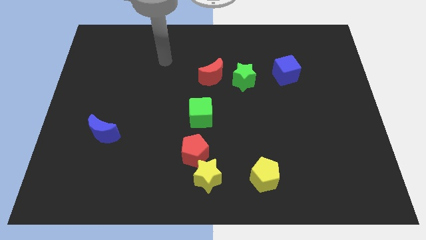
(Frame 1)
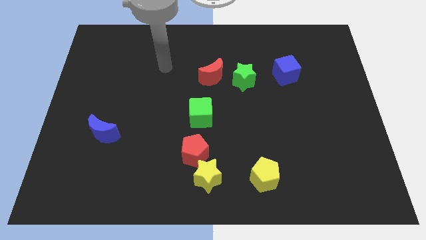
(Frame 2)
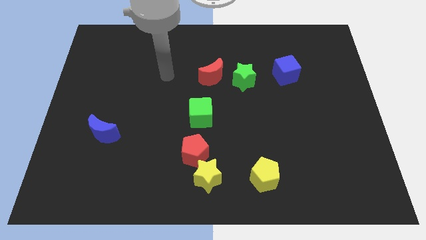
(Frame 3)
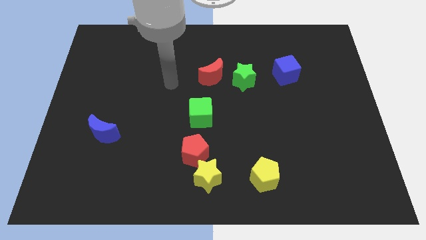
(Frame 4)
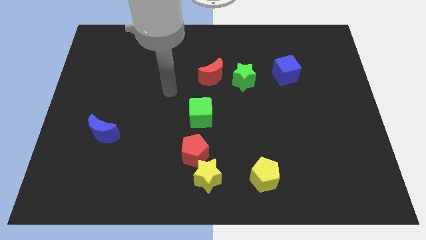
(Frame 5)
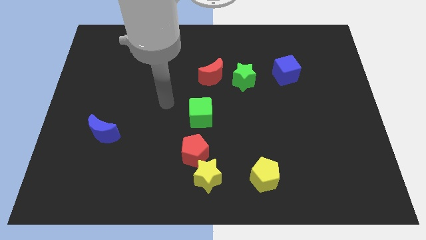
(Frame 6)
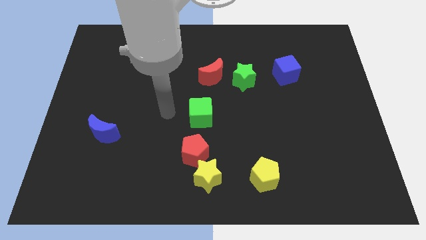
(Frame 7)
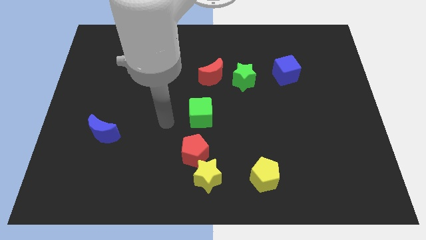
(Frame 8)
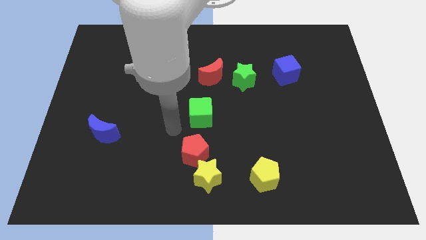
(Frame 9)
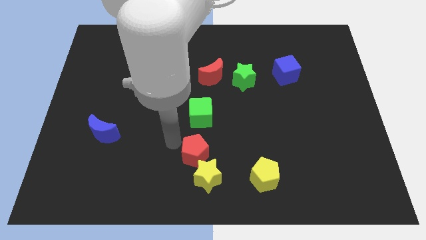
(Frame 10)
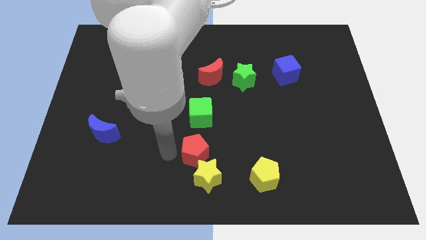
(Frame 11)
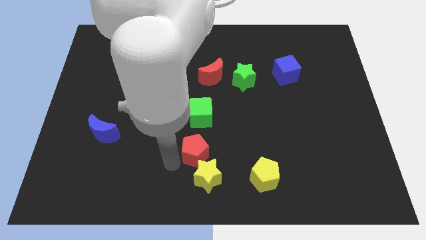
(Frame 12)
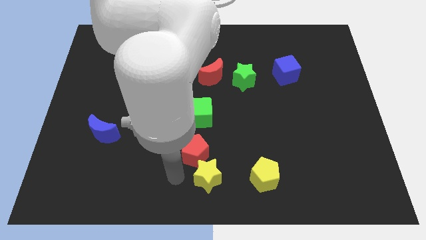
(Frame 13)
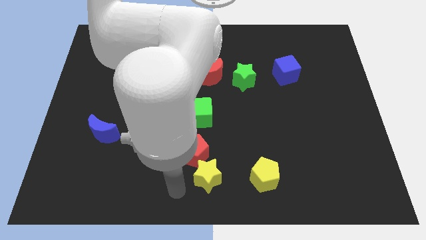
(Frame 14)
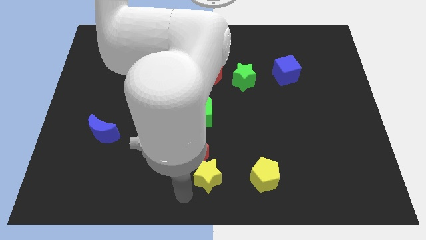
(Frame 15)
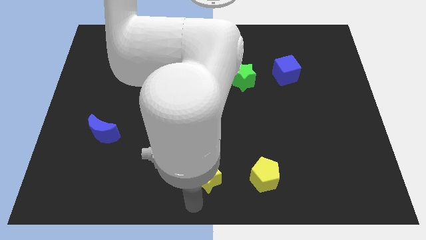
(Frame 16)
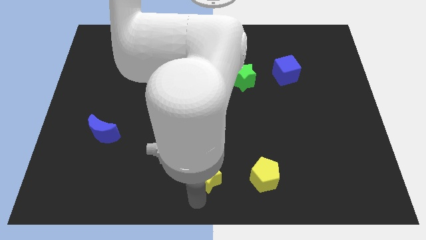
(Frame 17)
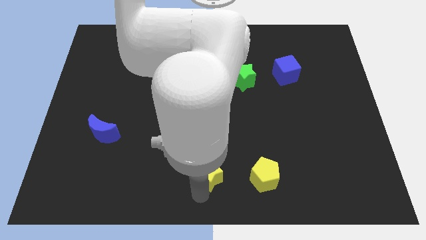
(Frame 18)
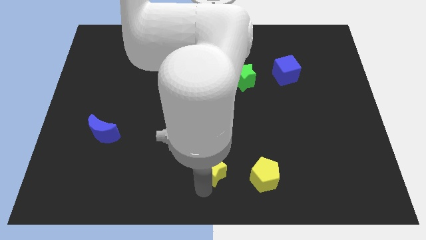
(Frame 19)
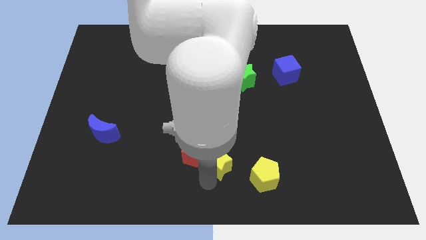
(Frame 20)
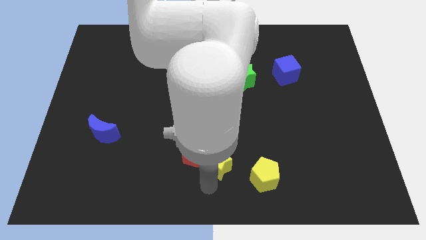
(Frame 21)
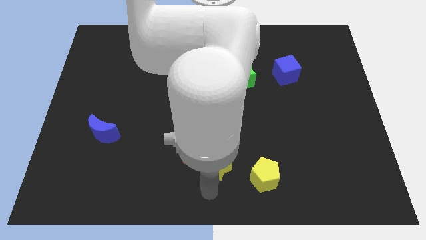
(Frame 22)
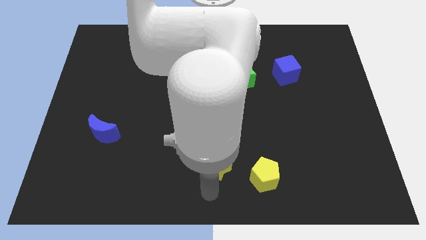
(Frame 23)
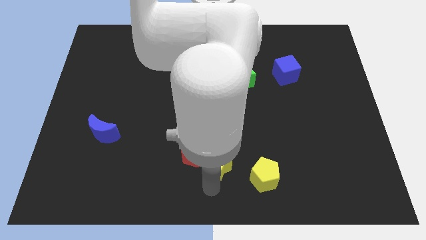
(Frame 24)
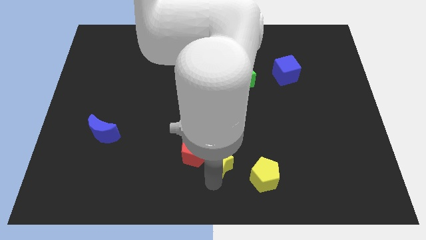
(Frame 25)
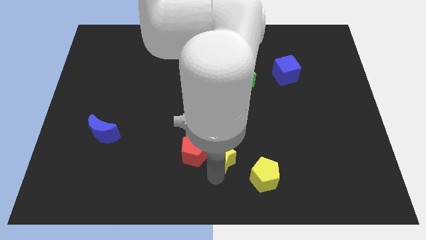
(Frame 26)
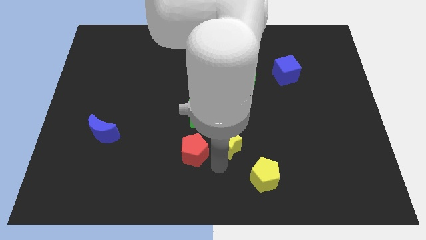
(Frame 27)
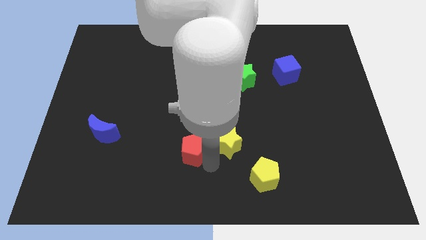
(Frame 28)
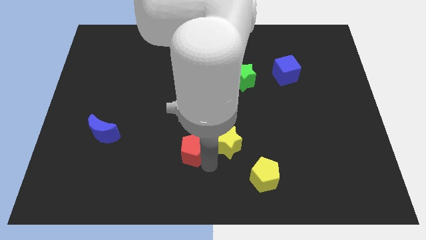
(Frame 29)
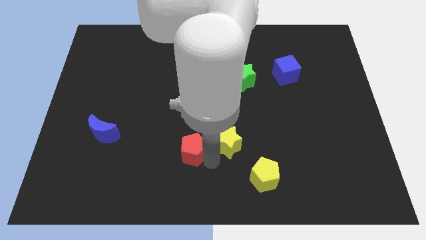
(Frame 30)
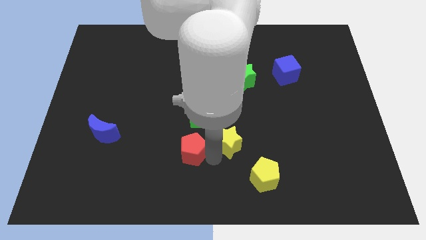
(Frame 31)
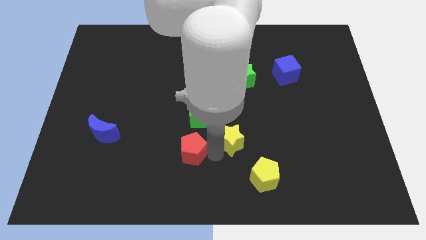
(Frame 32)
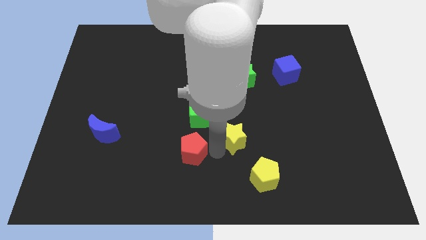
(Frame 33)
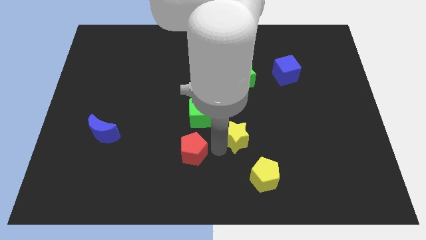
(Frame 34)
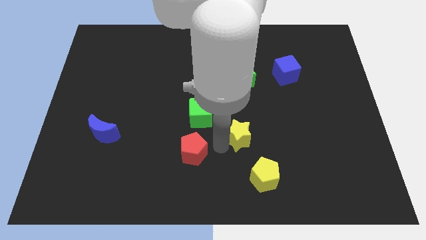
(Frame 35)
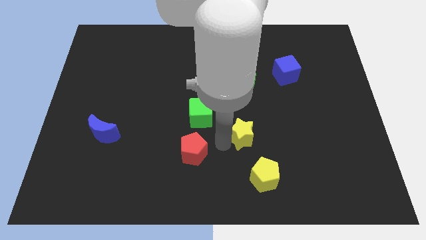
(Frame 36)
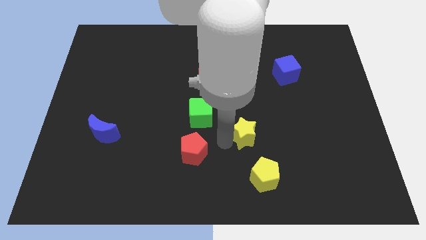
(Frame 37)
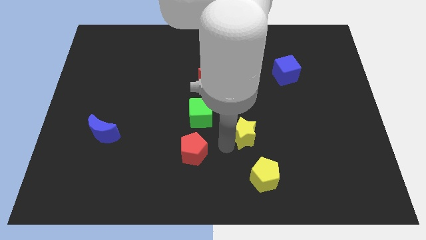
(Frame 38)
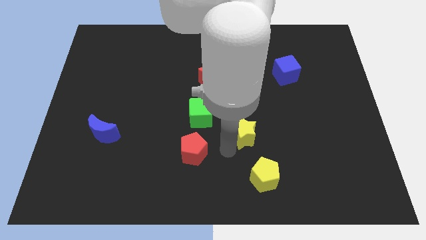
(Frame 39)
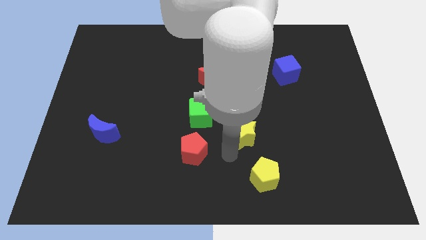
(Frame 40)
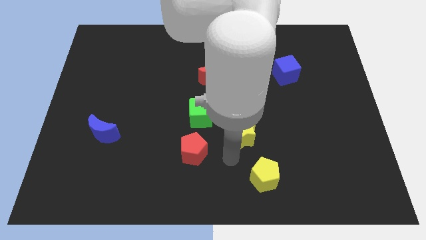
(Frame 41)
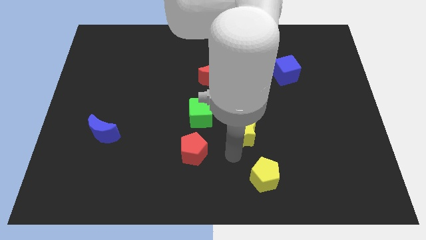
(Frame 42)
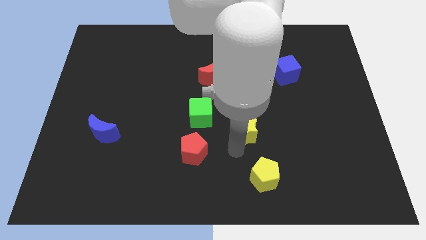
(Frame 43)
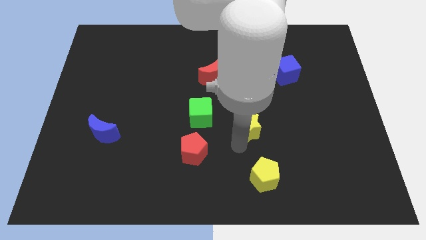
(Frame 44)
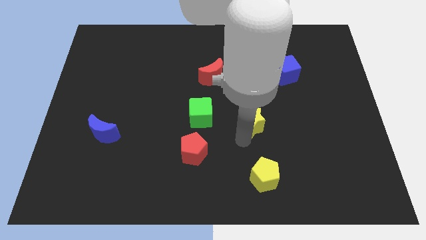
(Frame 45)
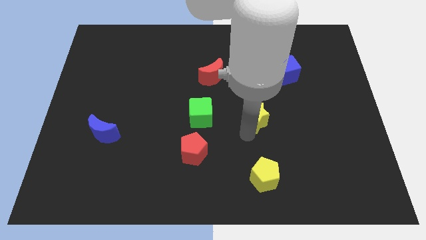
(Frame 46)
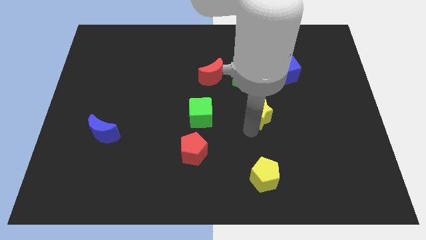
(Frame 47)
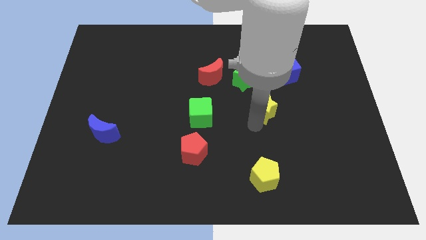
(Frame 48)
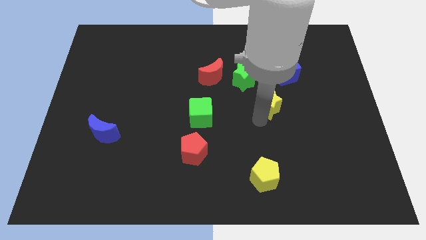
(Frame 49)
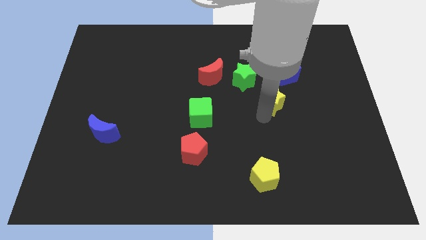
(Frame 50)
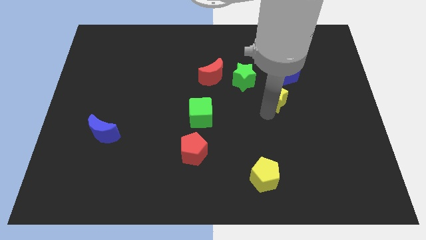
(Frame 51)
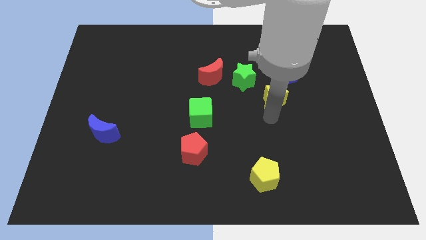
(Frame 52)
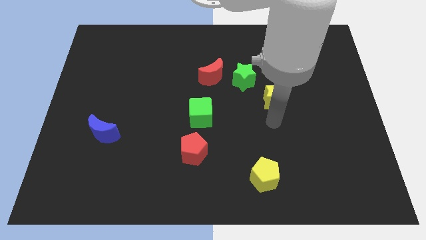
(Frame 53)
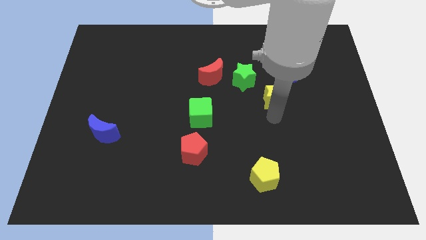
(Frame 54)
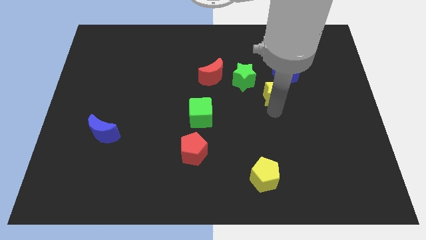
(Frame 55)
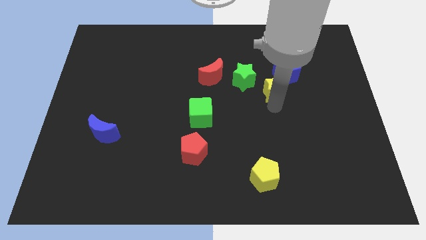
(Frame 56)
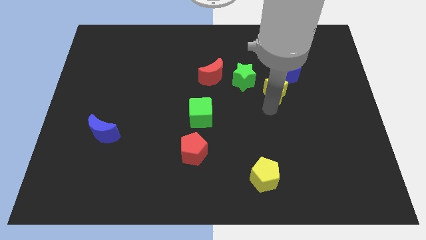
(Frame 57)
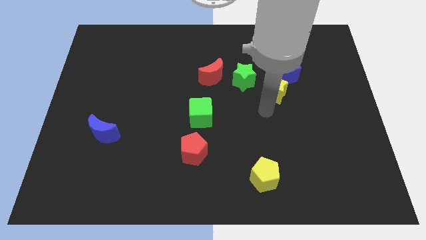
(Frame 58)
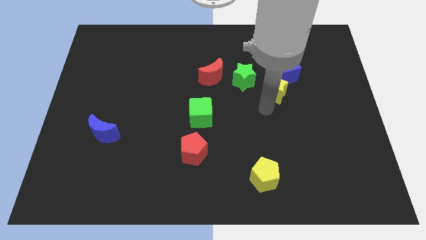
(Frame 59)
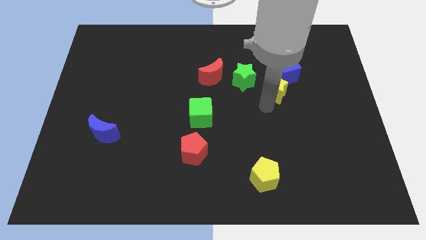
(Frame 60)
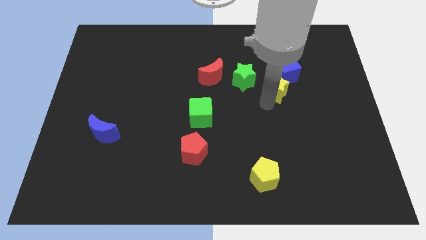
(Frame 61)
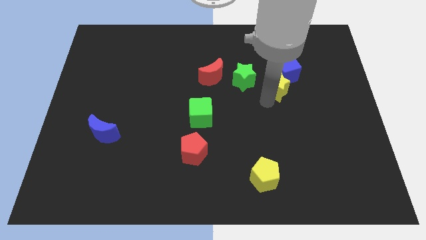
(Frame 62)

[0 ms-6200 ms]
slide the yellow star to the blue cube

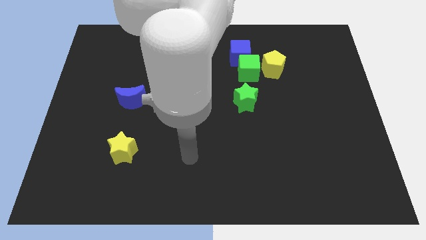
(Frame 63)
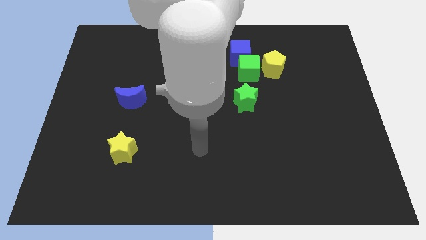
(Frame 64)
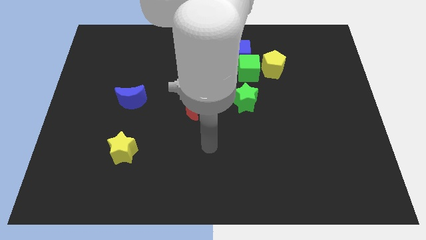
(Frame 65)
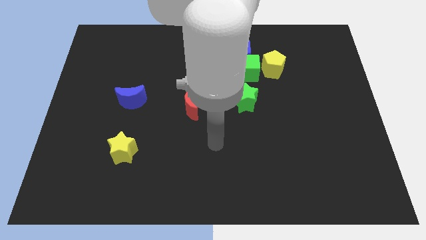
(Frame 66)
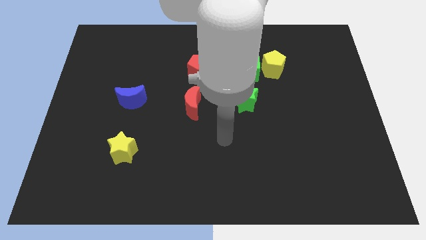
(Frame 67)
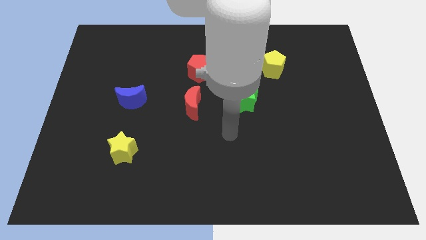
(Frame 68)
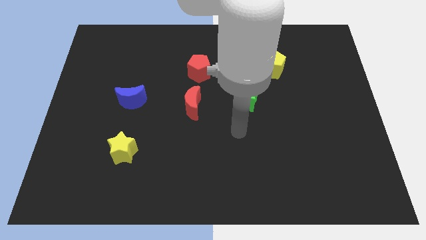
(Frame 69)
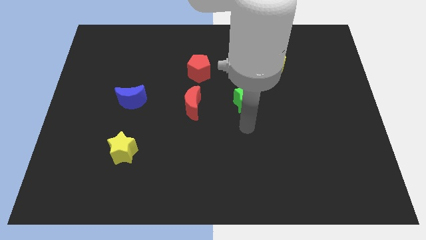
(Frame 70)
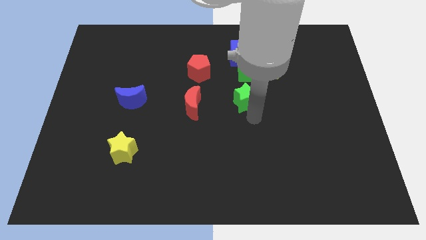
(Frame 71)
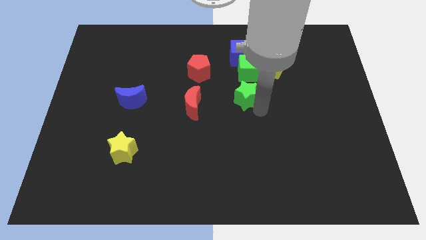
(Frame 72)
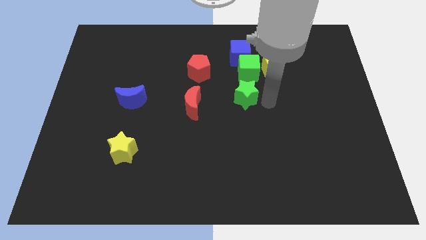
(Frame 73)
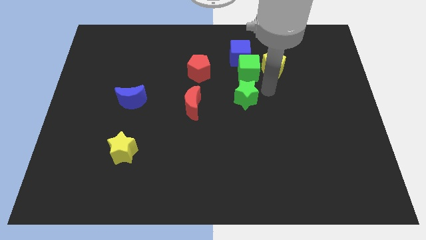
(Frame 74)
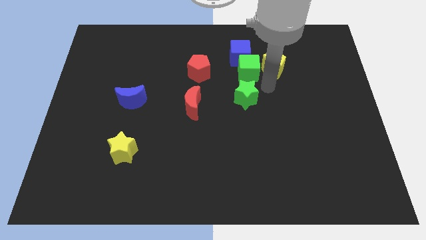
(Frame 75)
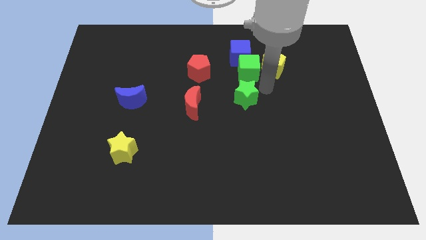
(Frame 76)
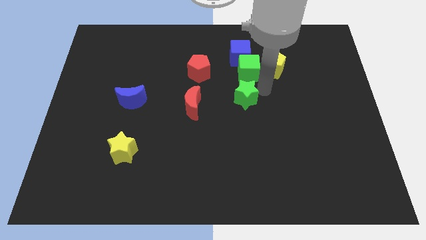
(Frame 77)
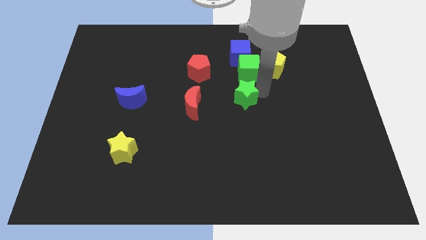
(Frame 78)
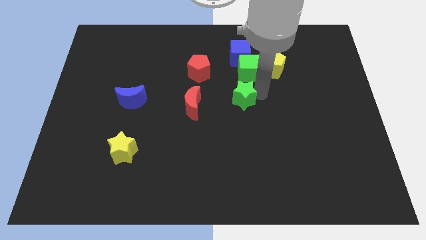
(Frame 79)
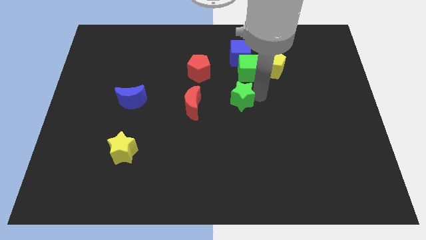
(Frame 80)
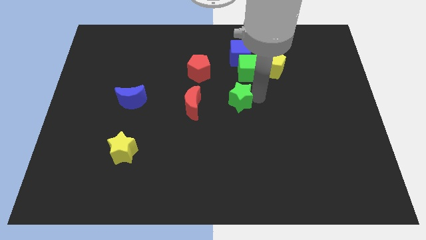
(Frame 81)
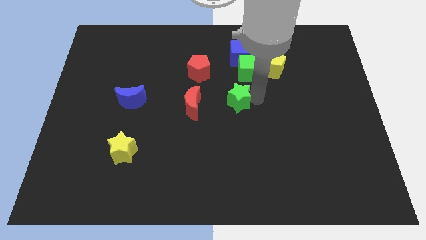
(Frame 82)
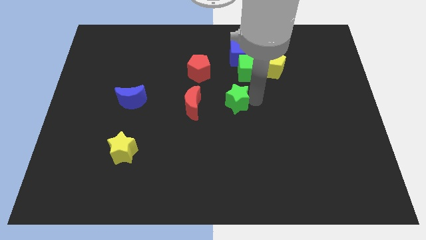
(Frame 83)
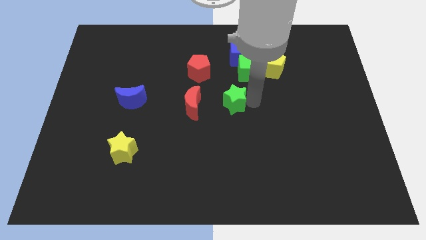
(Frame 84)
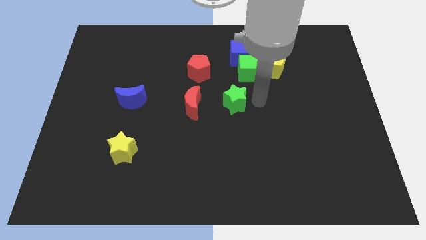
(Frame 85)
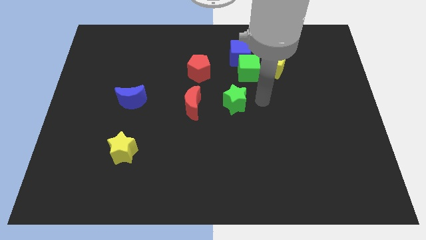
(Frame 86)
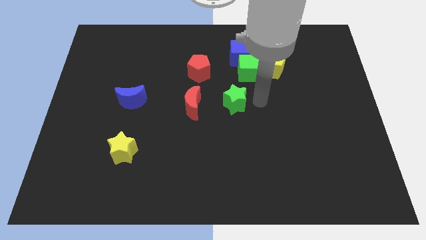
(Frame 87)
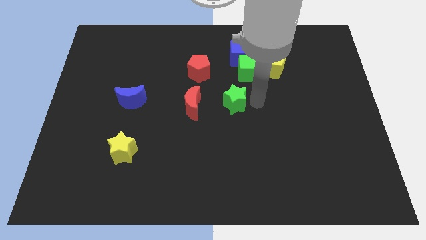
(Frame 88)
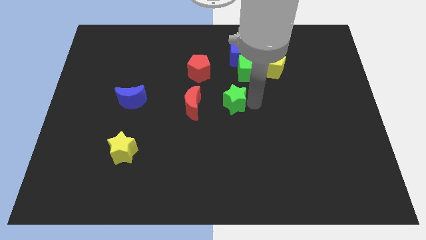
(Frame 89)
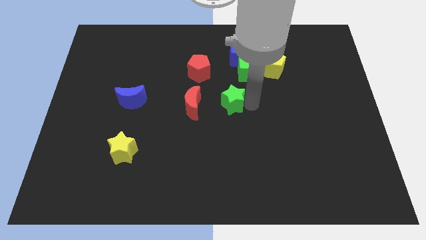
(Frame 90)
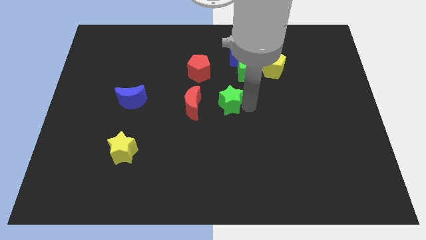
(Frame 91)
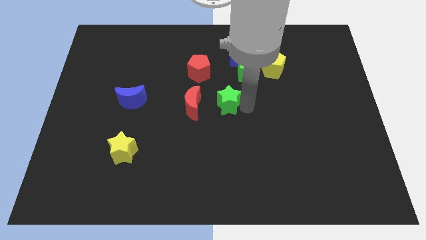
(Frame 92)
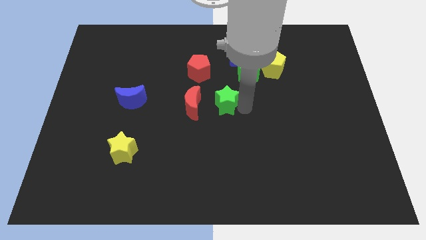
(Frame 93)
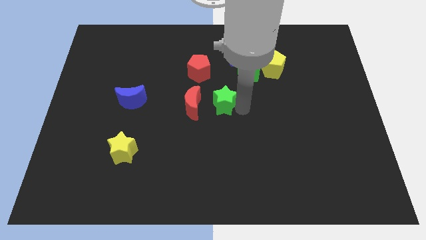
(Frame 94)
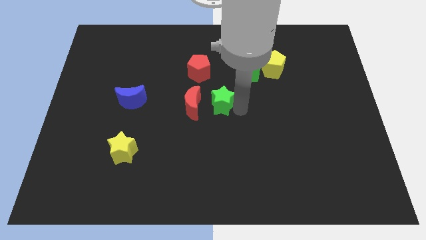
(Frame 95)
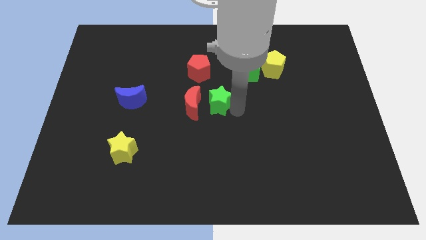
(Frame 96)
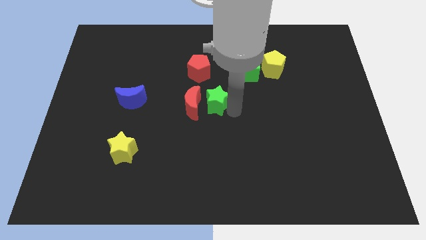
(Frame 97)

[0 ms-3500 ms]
slide the green star next to the red moon
